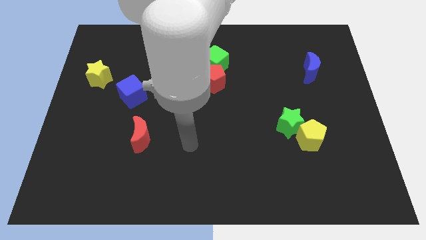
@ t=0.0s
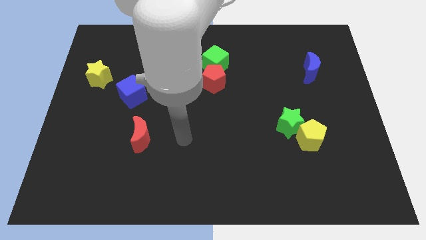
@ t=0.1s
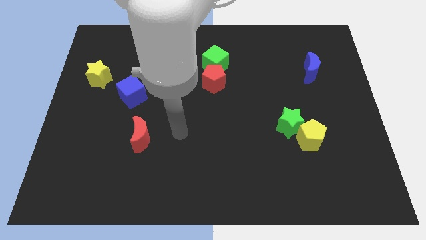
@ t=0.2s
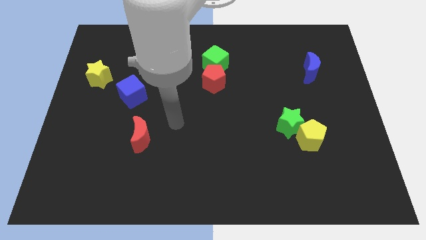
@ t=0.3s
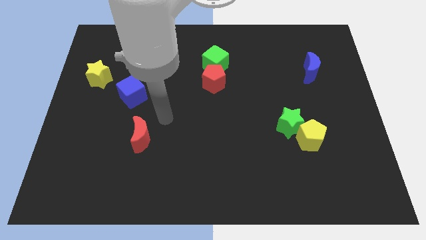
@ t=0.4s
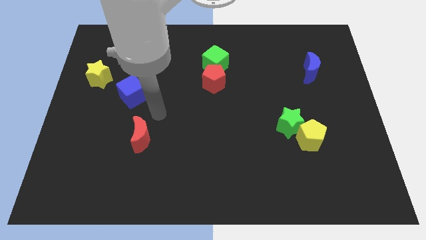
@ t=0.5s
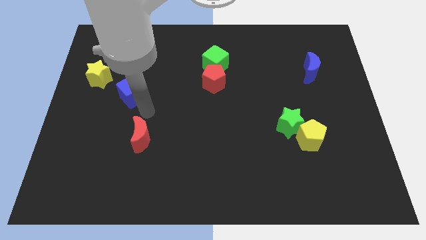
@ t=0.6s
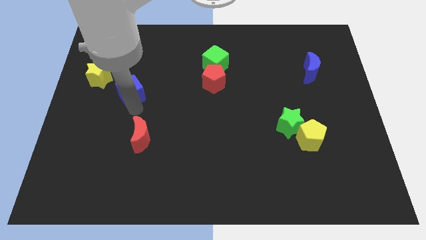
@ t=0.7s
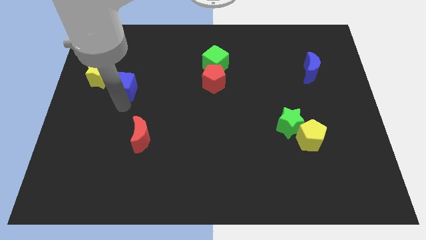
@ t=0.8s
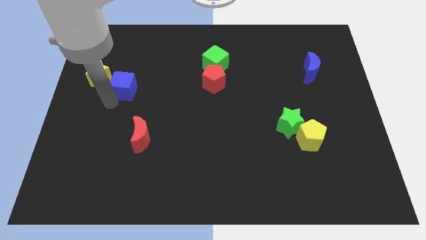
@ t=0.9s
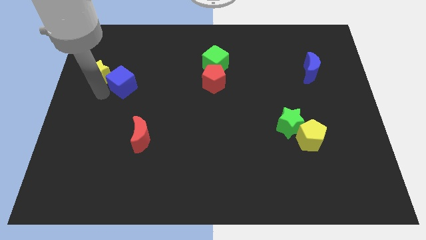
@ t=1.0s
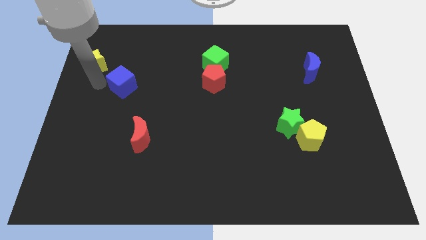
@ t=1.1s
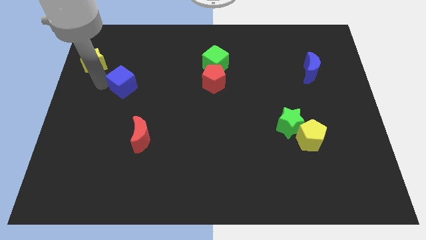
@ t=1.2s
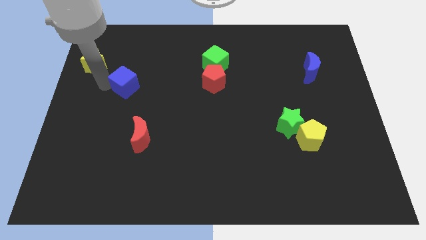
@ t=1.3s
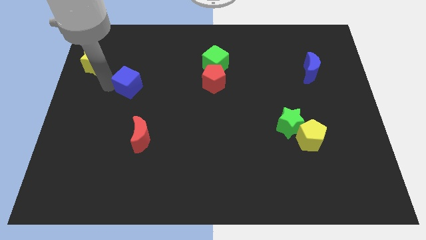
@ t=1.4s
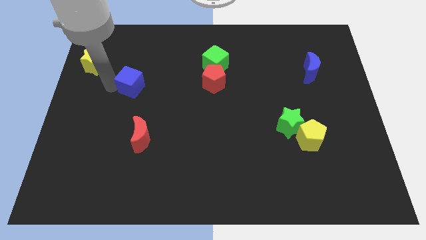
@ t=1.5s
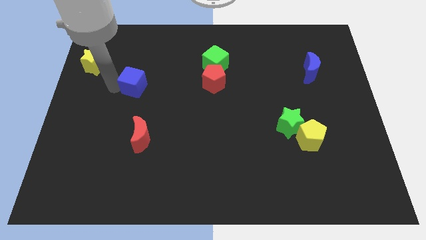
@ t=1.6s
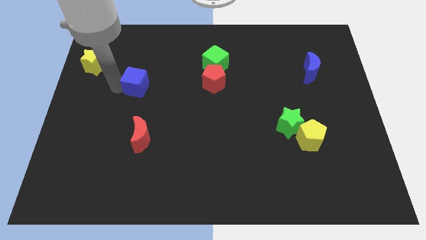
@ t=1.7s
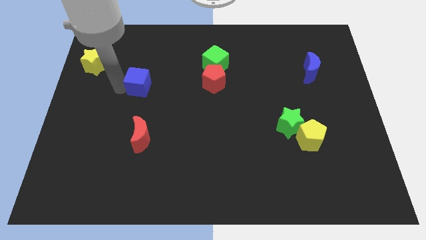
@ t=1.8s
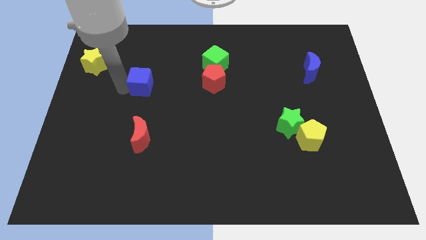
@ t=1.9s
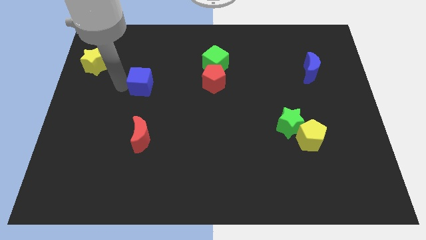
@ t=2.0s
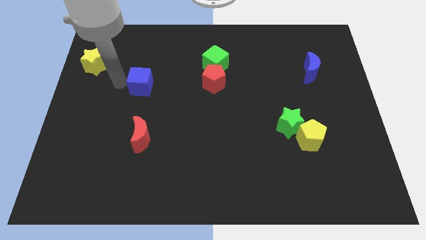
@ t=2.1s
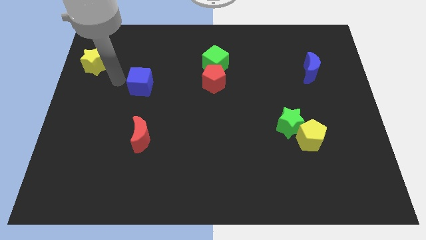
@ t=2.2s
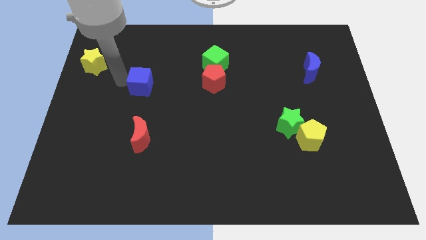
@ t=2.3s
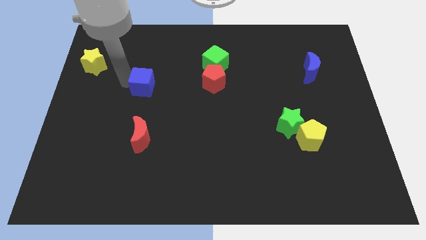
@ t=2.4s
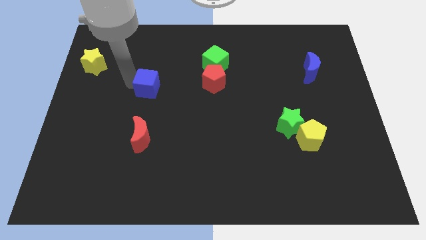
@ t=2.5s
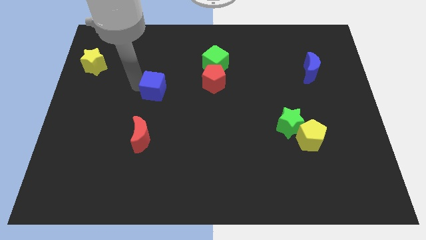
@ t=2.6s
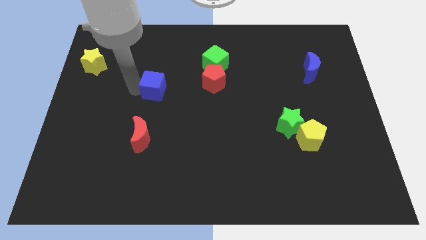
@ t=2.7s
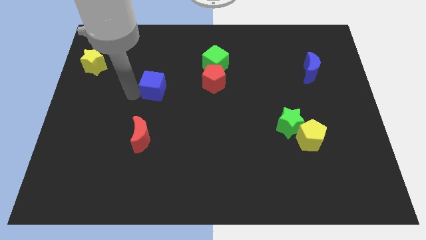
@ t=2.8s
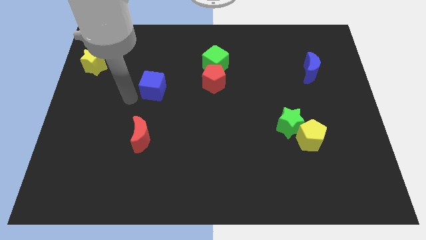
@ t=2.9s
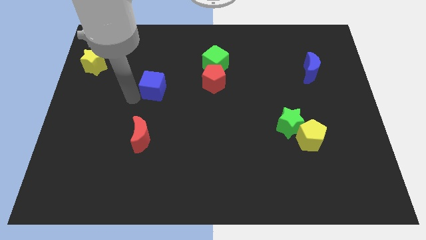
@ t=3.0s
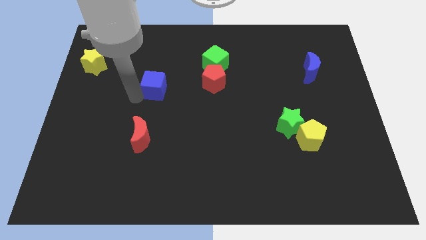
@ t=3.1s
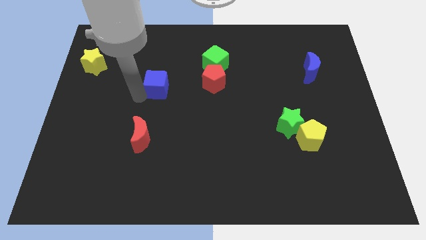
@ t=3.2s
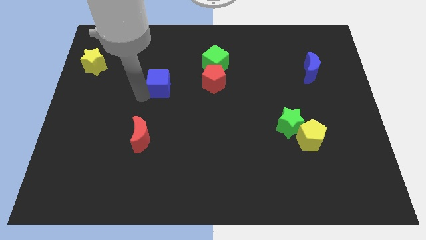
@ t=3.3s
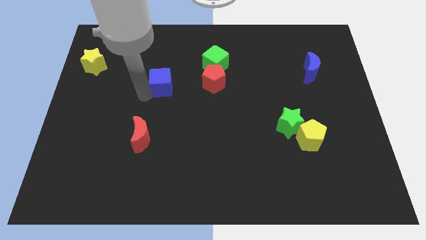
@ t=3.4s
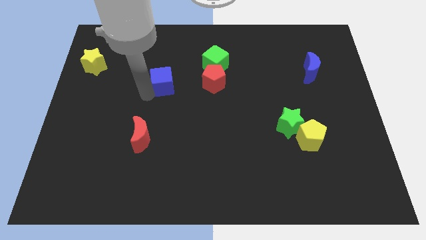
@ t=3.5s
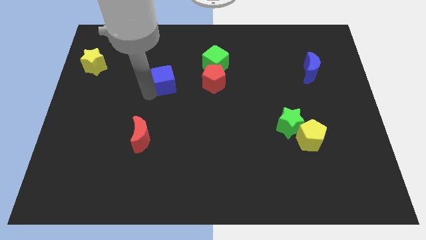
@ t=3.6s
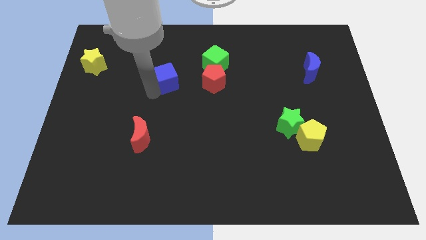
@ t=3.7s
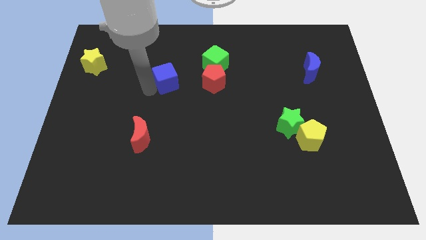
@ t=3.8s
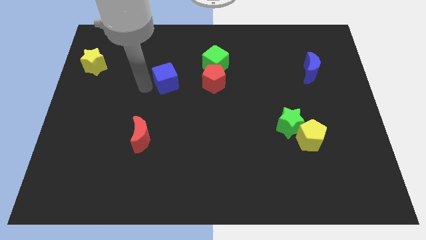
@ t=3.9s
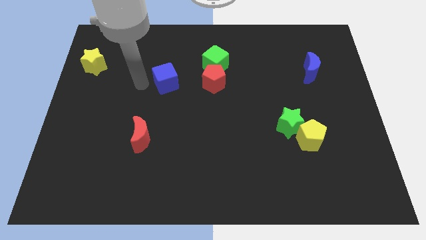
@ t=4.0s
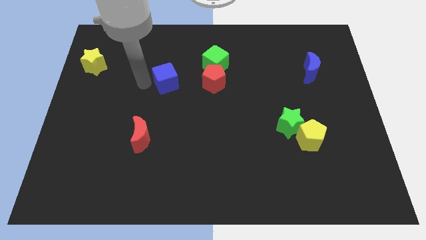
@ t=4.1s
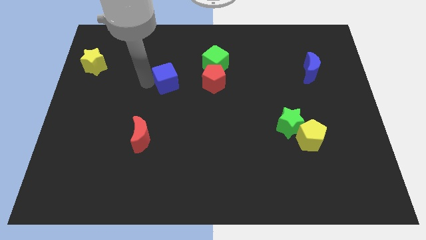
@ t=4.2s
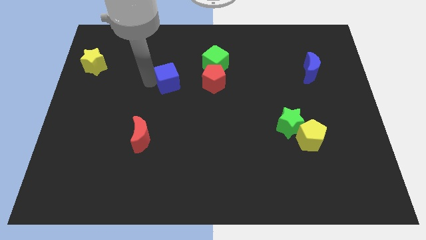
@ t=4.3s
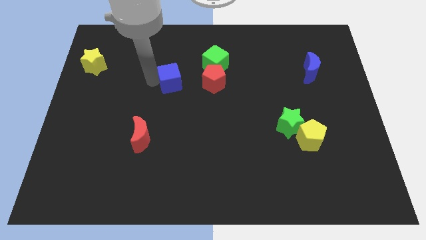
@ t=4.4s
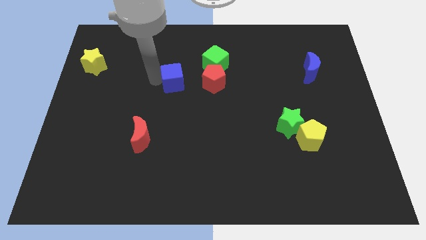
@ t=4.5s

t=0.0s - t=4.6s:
slide the blue cube to the bottom left of the green cube

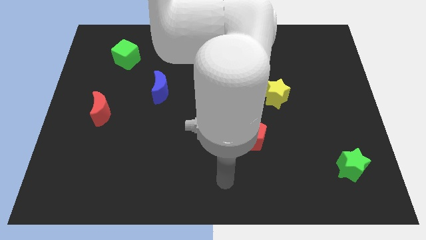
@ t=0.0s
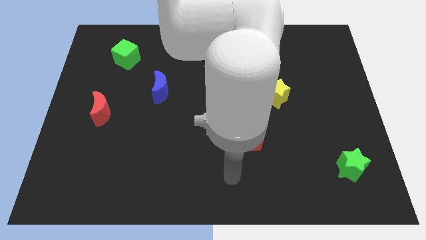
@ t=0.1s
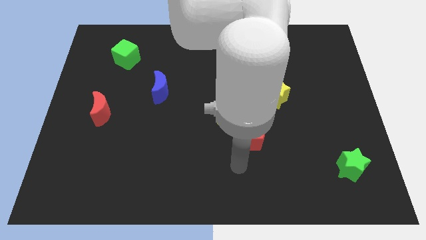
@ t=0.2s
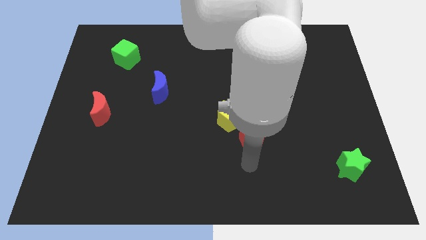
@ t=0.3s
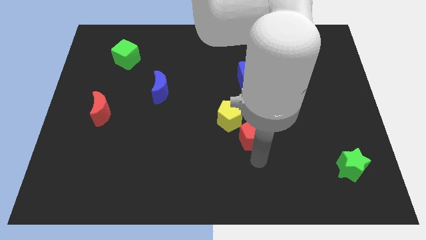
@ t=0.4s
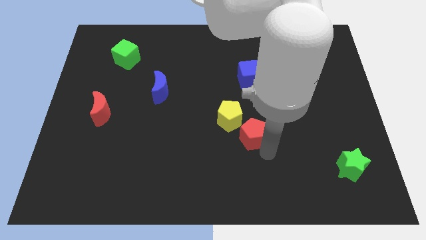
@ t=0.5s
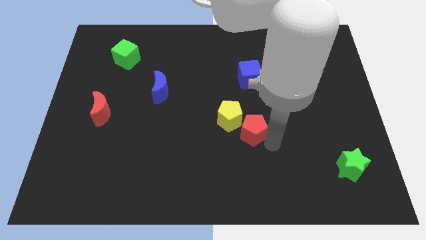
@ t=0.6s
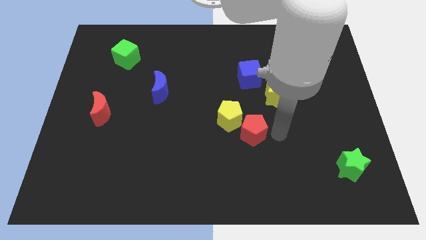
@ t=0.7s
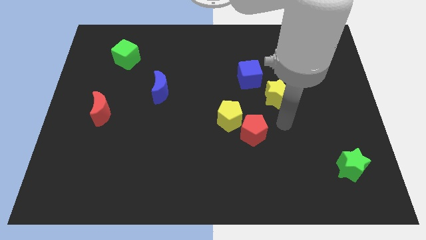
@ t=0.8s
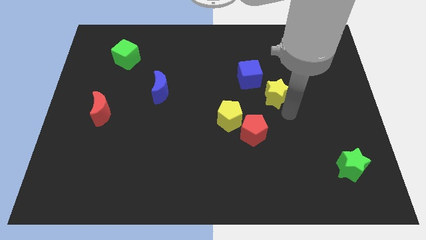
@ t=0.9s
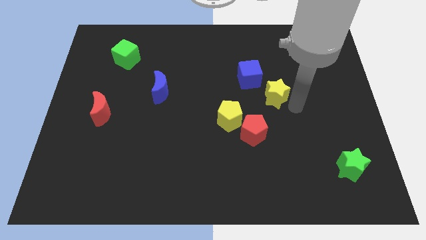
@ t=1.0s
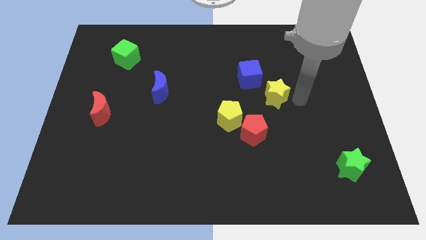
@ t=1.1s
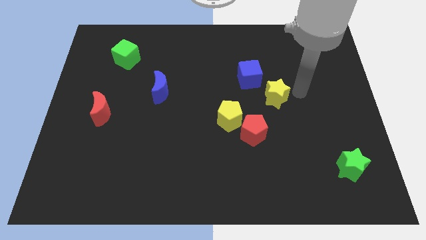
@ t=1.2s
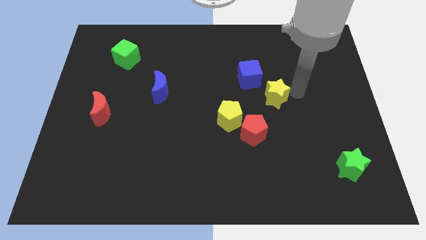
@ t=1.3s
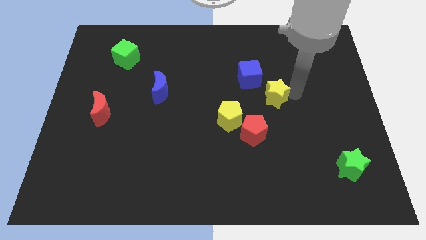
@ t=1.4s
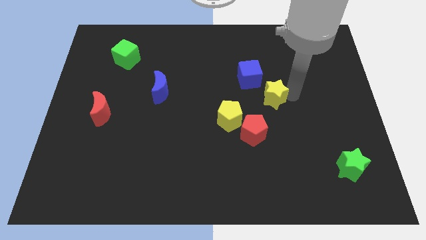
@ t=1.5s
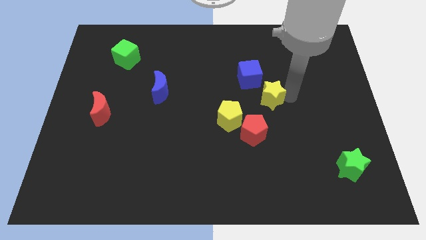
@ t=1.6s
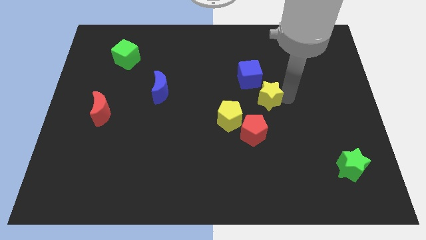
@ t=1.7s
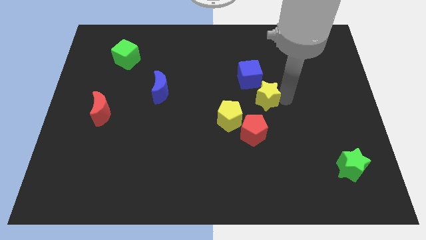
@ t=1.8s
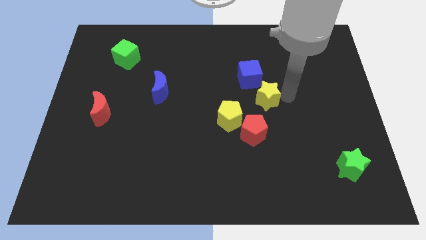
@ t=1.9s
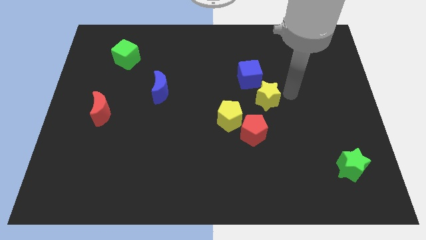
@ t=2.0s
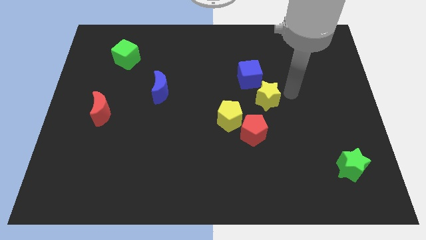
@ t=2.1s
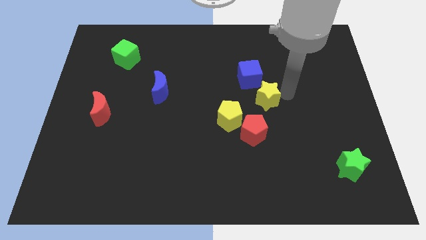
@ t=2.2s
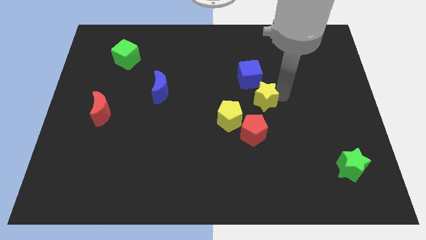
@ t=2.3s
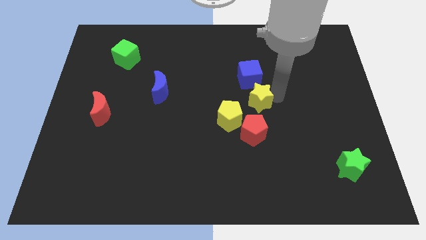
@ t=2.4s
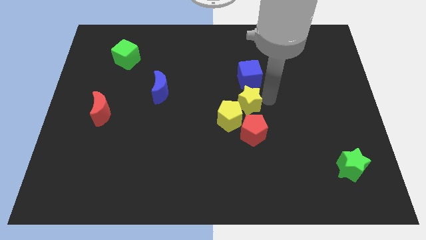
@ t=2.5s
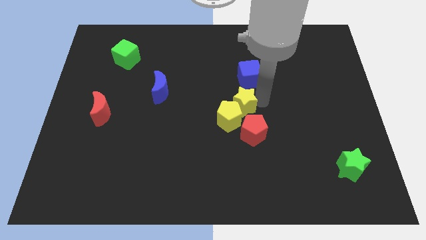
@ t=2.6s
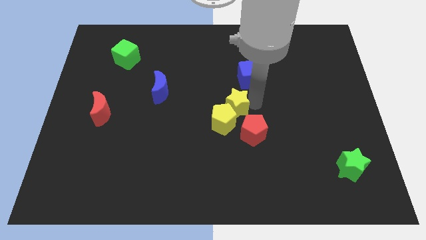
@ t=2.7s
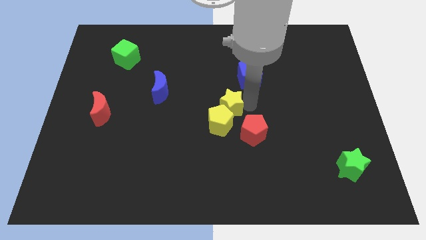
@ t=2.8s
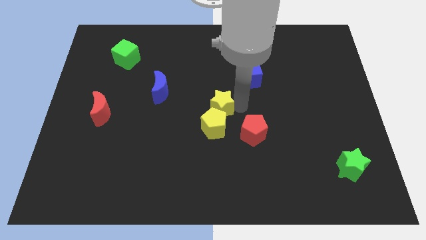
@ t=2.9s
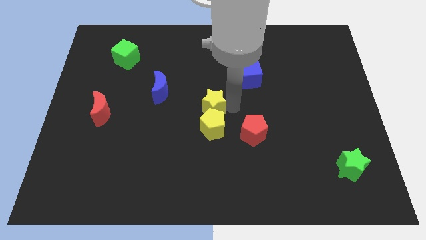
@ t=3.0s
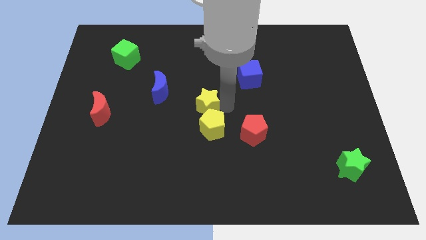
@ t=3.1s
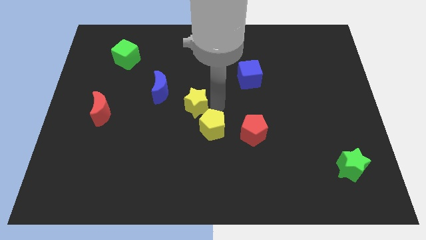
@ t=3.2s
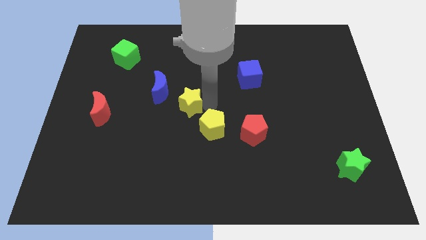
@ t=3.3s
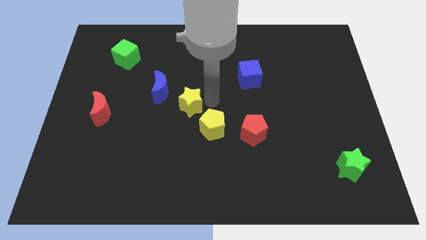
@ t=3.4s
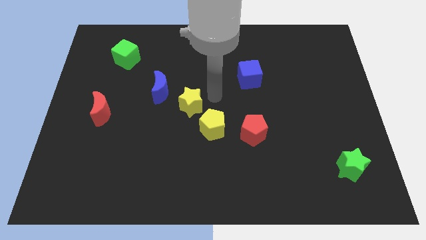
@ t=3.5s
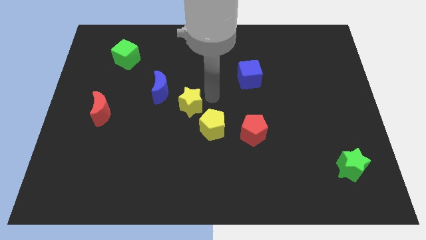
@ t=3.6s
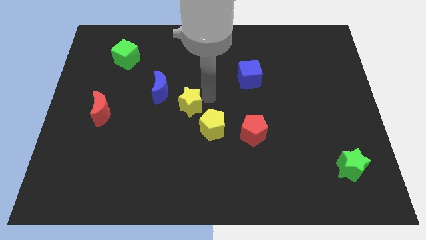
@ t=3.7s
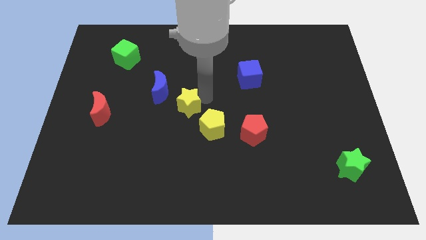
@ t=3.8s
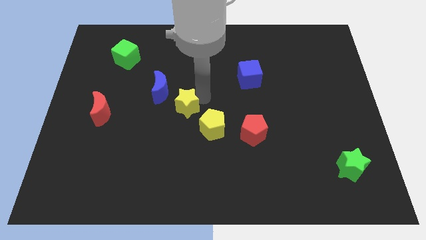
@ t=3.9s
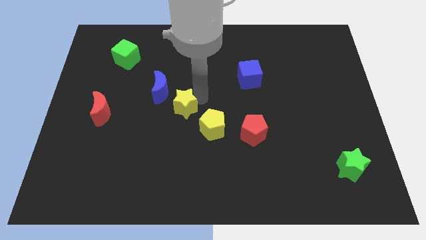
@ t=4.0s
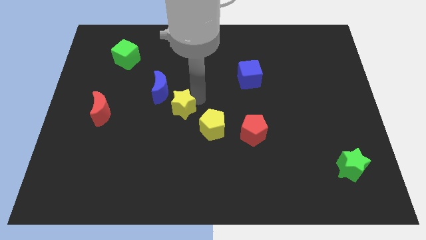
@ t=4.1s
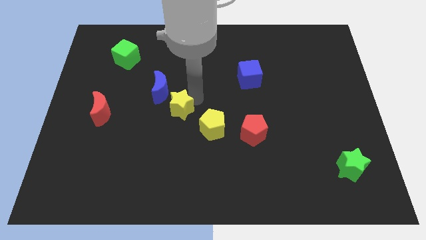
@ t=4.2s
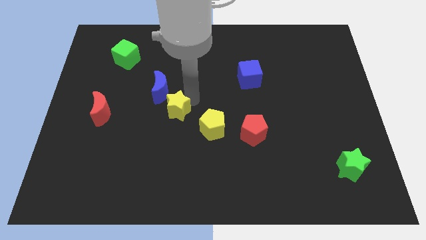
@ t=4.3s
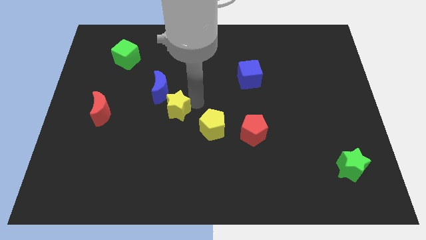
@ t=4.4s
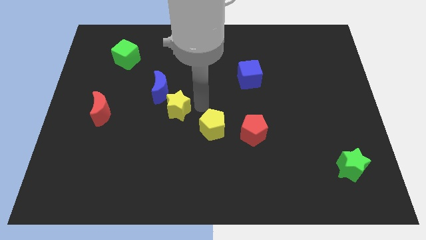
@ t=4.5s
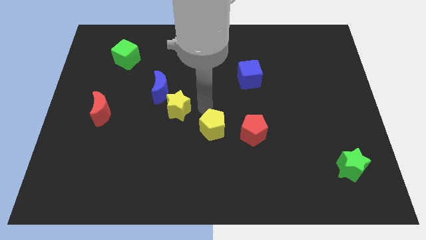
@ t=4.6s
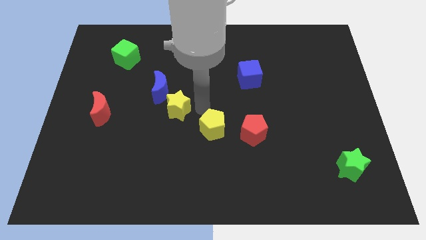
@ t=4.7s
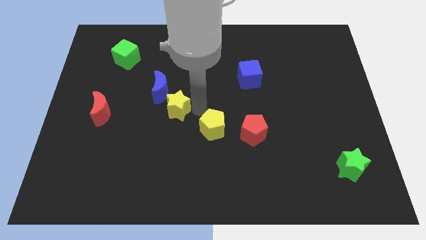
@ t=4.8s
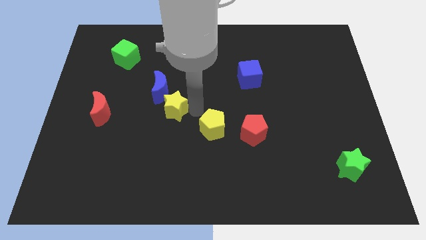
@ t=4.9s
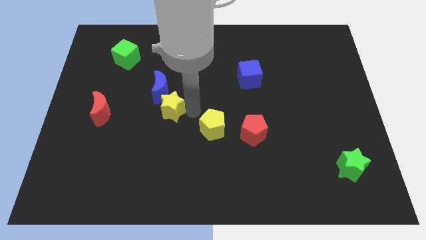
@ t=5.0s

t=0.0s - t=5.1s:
move the yellow star to the right side of the red moon
